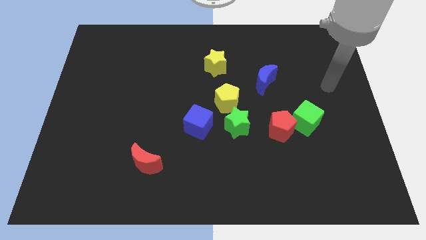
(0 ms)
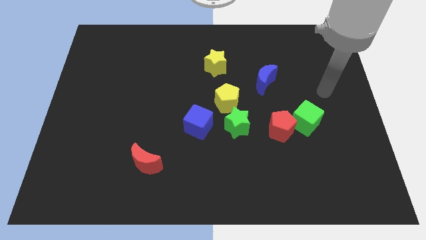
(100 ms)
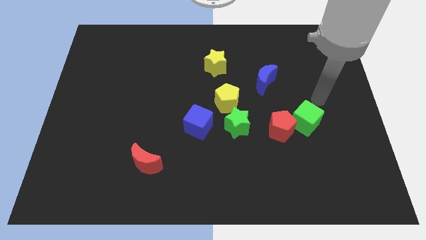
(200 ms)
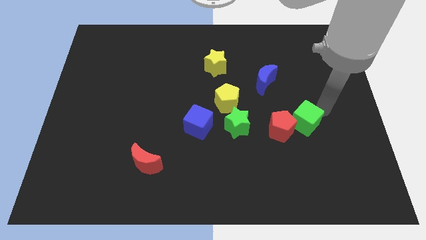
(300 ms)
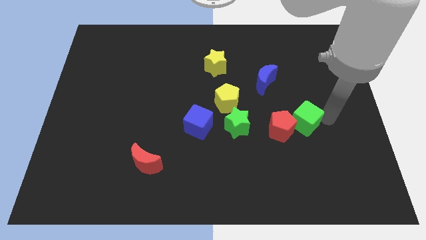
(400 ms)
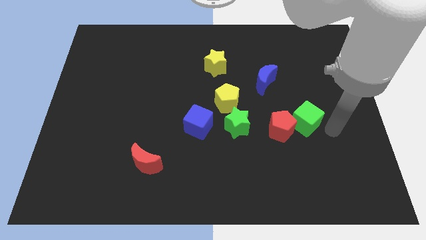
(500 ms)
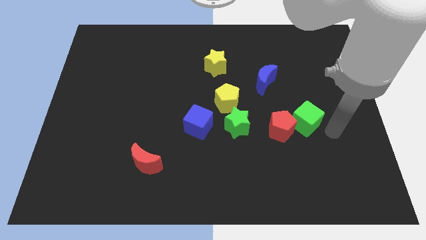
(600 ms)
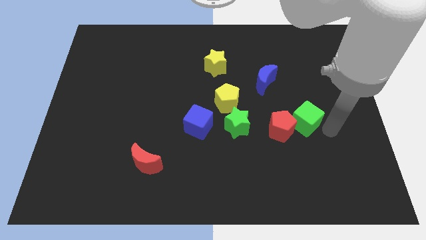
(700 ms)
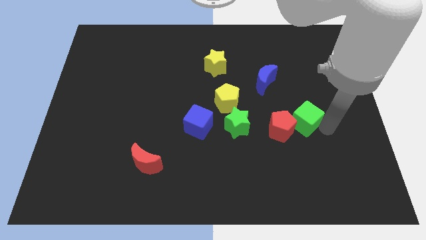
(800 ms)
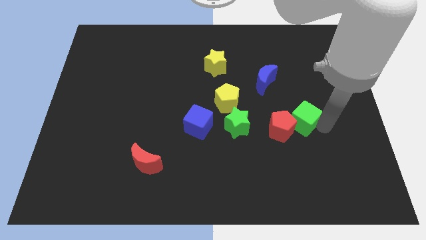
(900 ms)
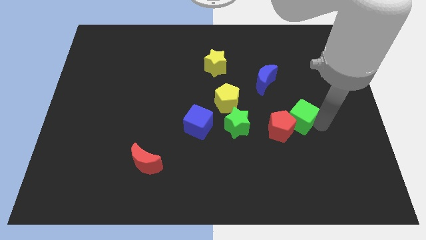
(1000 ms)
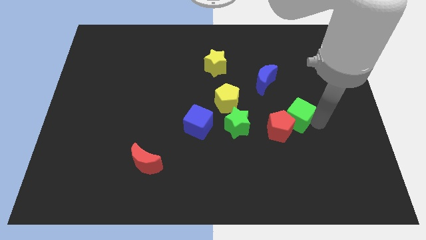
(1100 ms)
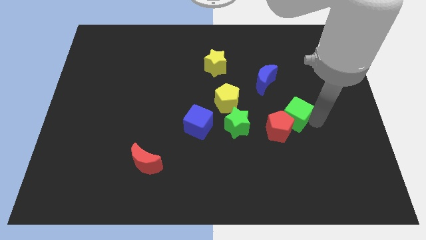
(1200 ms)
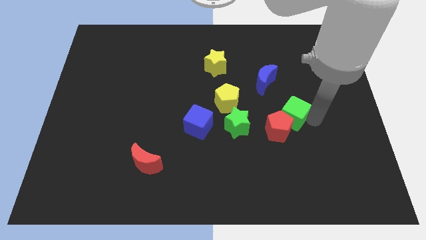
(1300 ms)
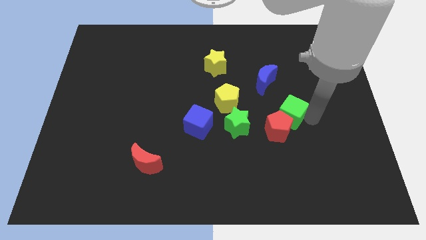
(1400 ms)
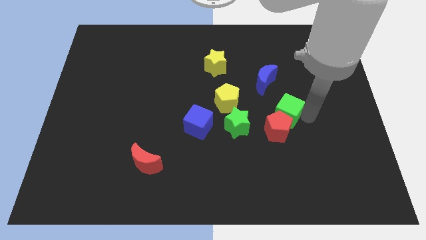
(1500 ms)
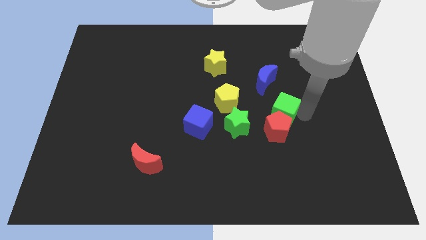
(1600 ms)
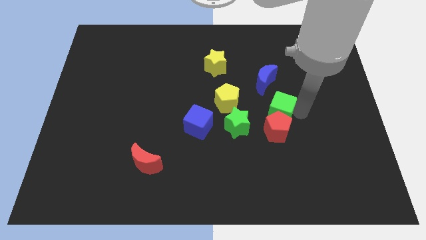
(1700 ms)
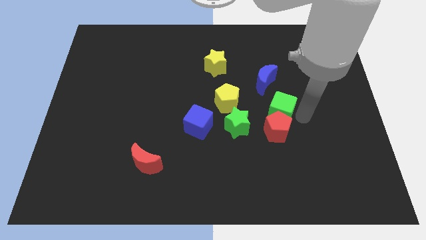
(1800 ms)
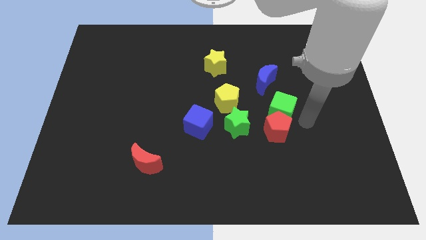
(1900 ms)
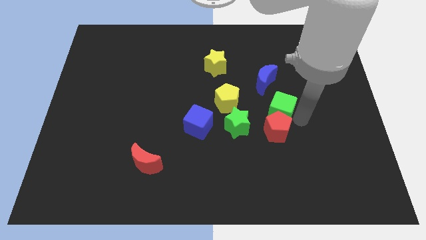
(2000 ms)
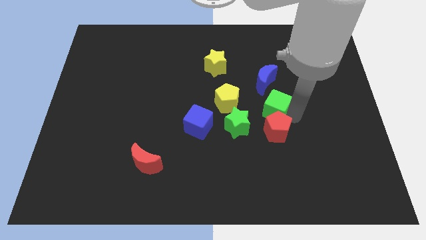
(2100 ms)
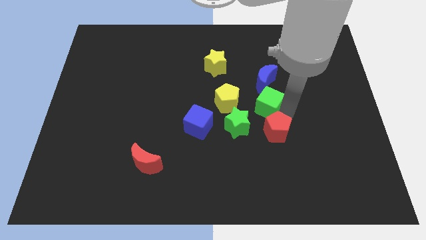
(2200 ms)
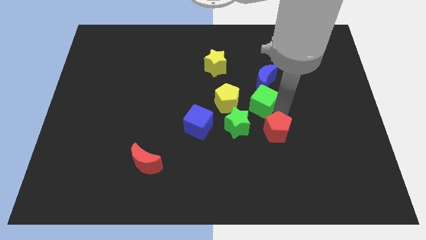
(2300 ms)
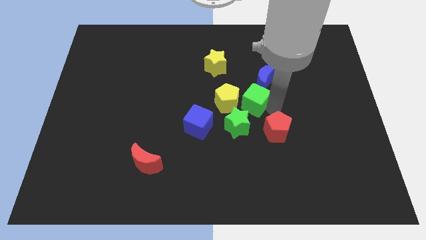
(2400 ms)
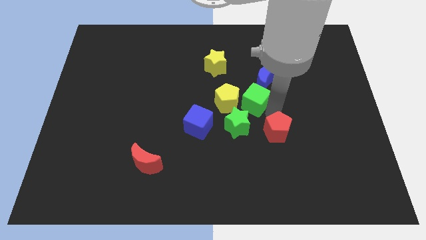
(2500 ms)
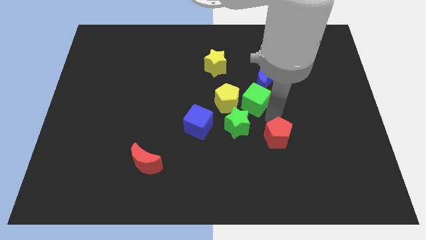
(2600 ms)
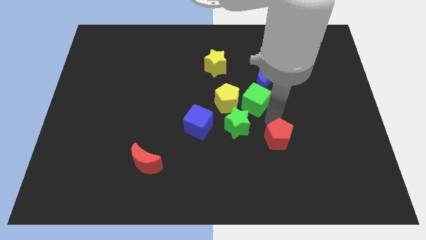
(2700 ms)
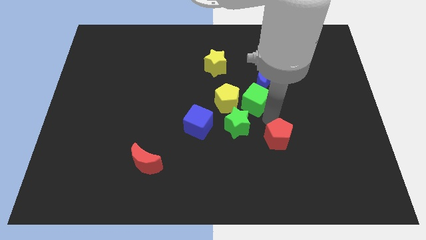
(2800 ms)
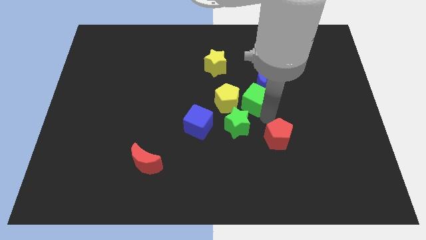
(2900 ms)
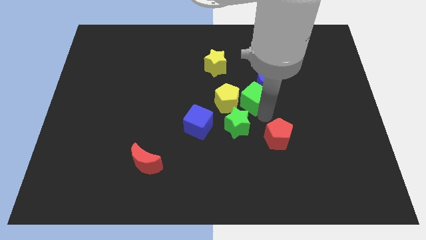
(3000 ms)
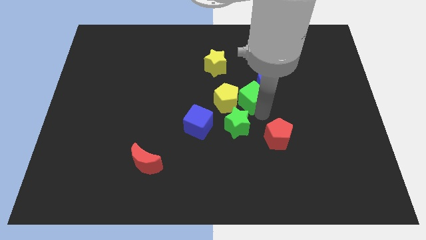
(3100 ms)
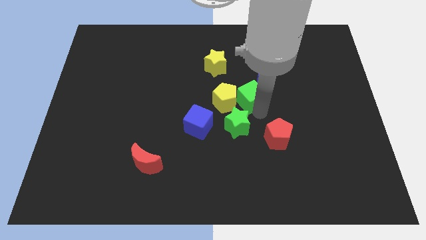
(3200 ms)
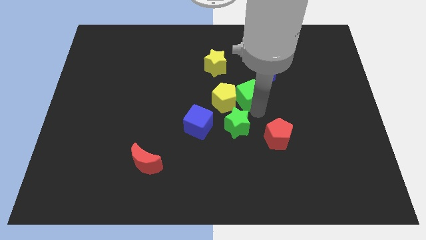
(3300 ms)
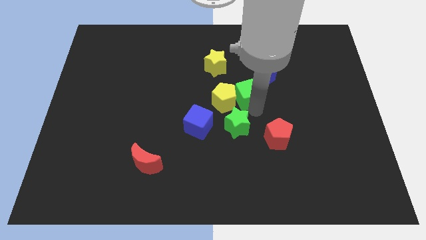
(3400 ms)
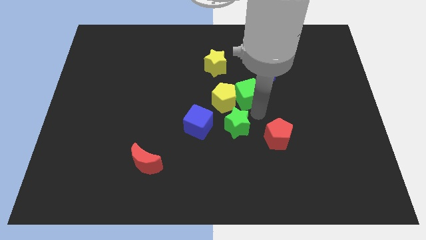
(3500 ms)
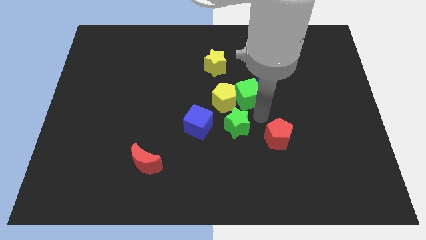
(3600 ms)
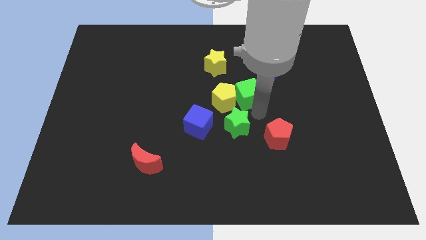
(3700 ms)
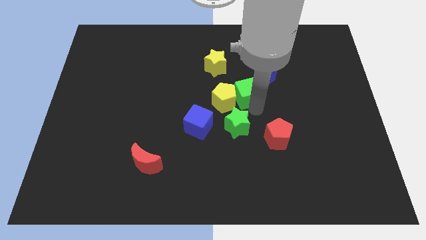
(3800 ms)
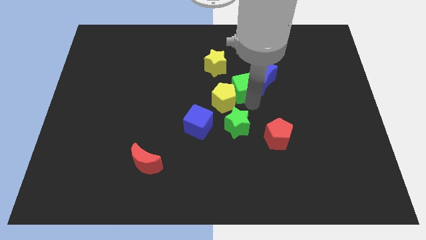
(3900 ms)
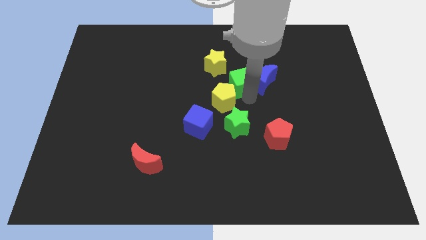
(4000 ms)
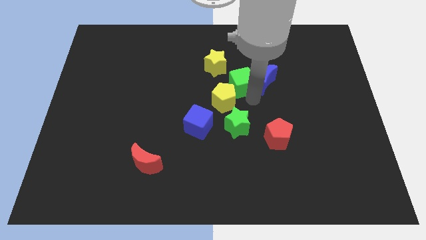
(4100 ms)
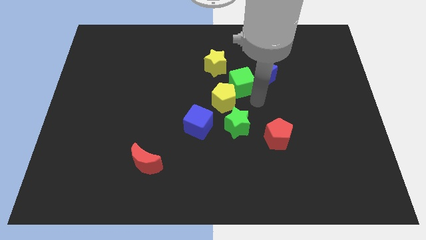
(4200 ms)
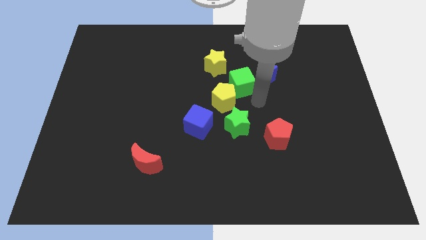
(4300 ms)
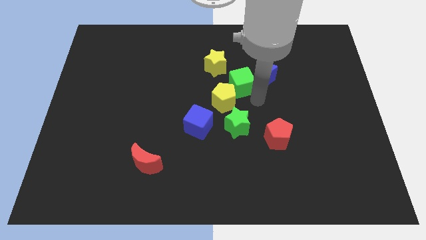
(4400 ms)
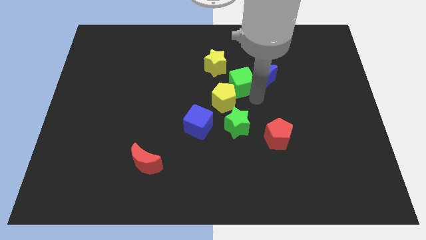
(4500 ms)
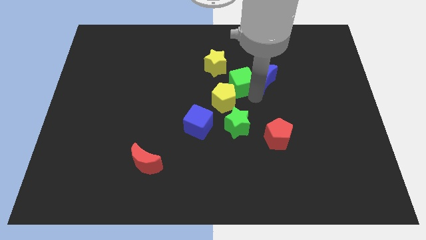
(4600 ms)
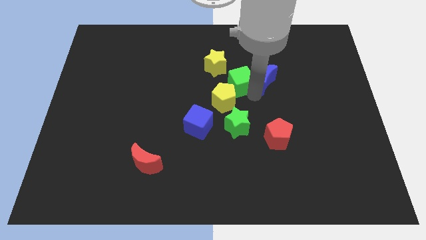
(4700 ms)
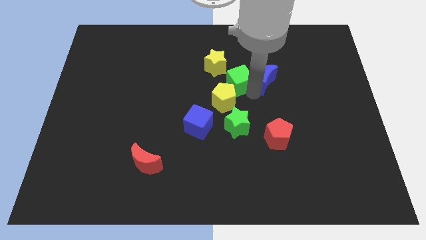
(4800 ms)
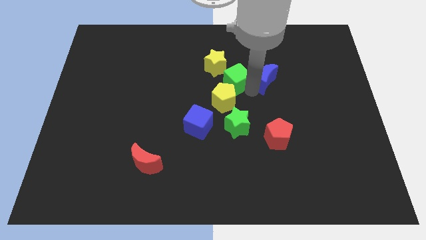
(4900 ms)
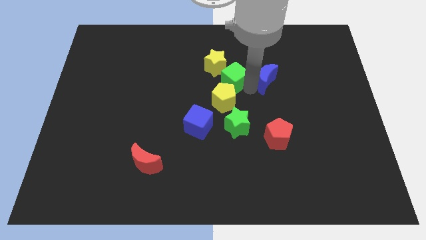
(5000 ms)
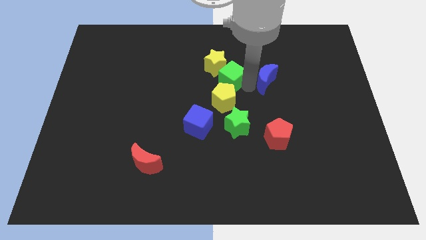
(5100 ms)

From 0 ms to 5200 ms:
put the green cube close to the yellow star

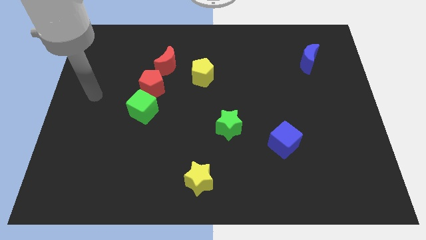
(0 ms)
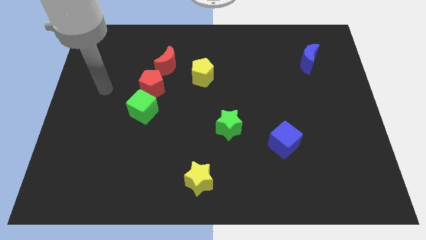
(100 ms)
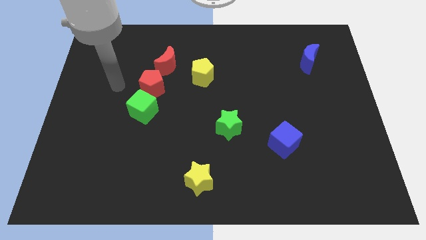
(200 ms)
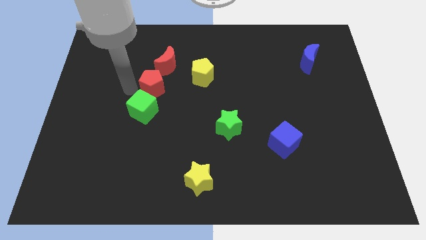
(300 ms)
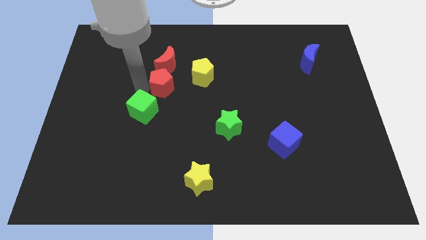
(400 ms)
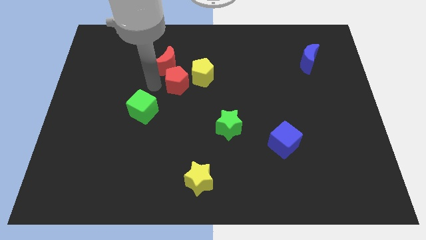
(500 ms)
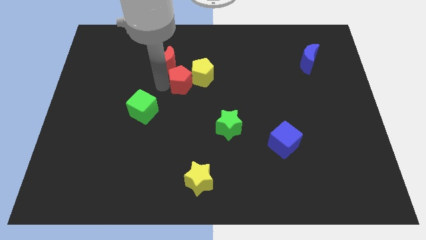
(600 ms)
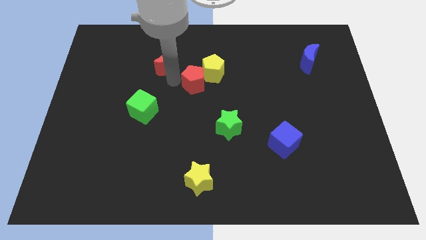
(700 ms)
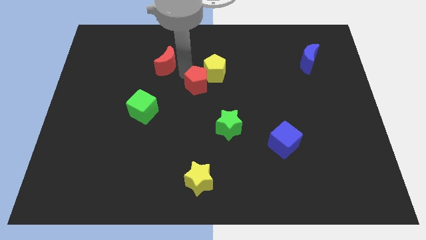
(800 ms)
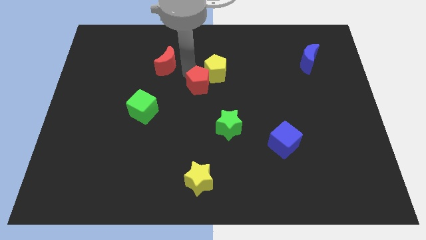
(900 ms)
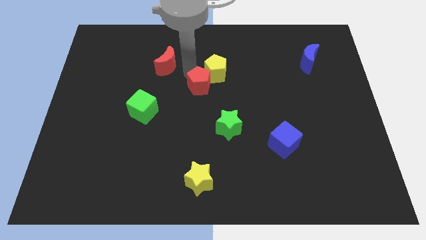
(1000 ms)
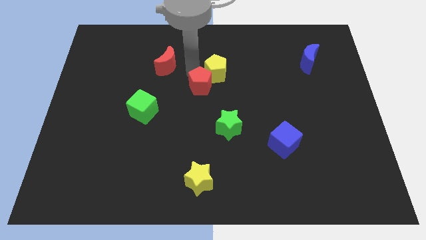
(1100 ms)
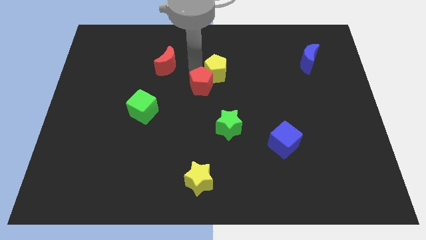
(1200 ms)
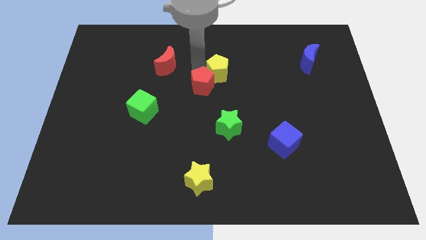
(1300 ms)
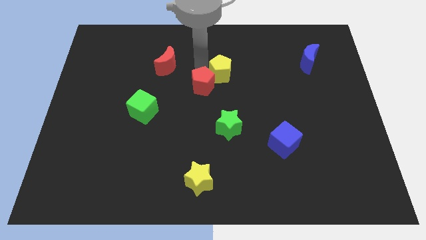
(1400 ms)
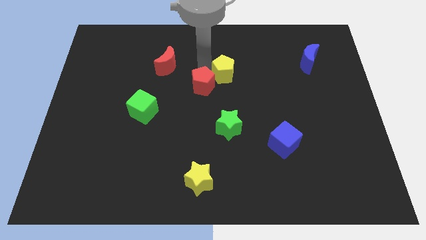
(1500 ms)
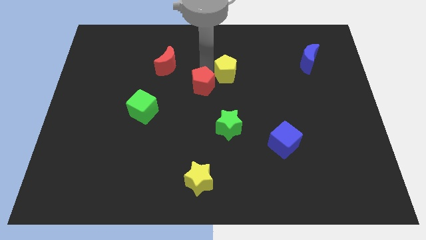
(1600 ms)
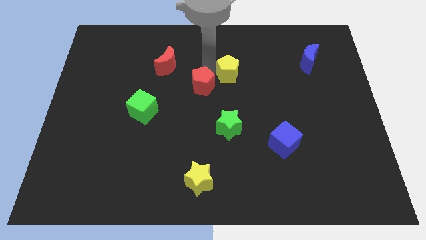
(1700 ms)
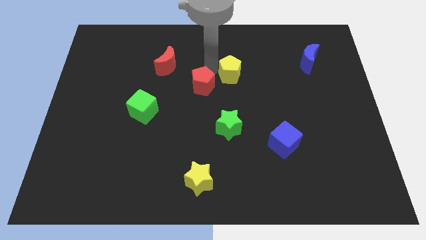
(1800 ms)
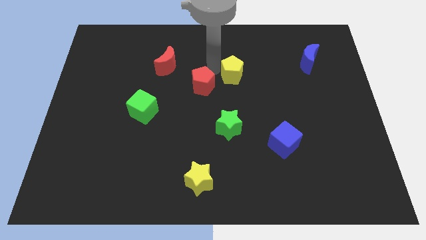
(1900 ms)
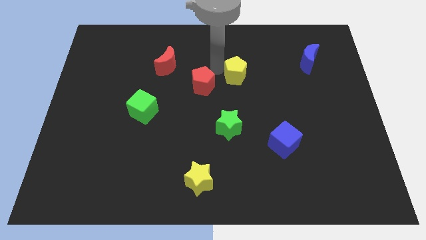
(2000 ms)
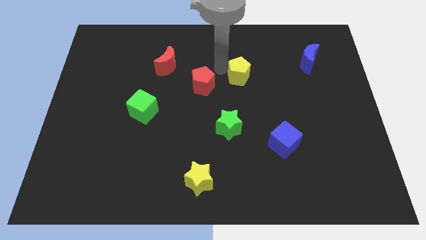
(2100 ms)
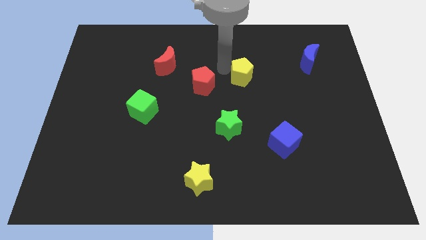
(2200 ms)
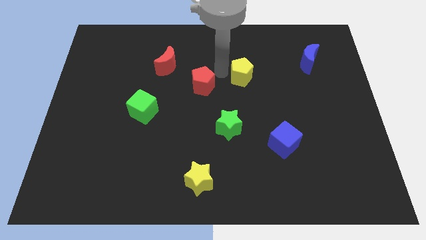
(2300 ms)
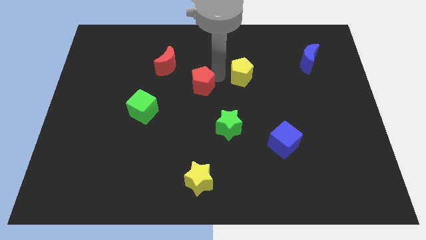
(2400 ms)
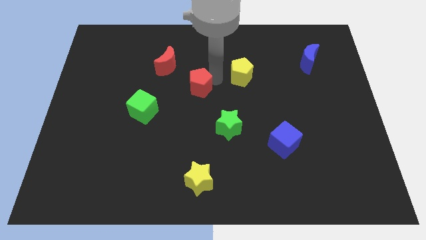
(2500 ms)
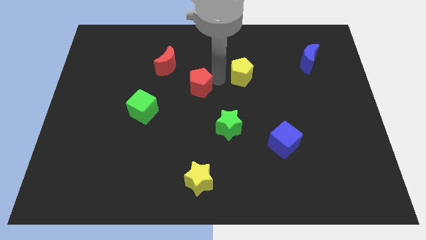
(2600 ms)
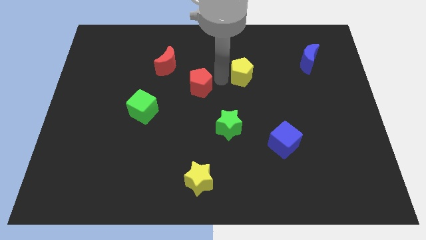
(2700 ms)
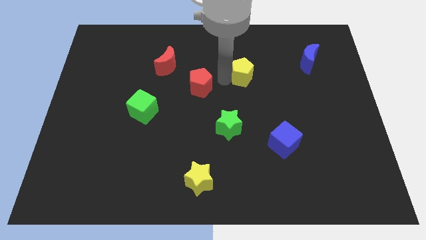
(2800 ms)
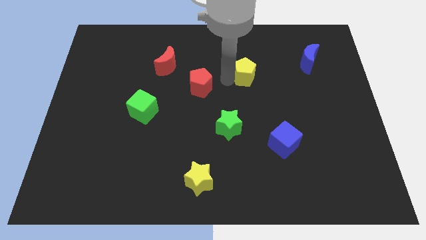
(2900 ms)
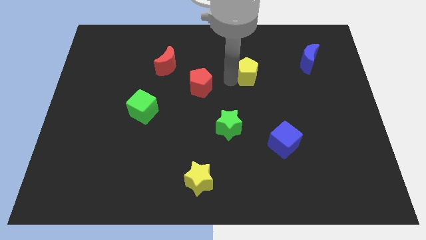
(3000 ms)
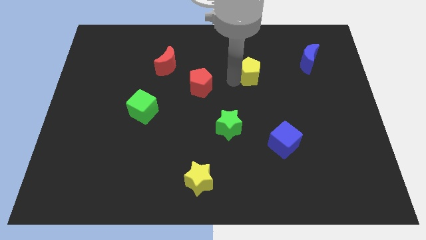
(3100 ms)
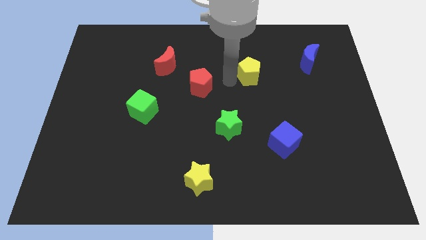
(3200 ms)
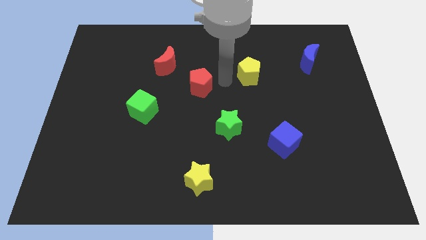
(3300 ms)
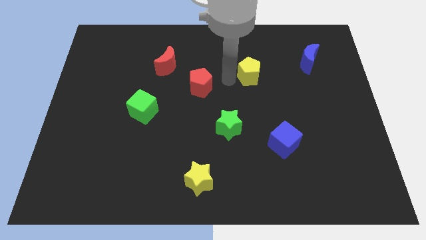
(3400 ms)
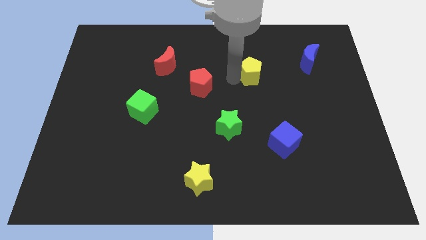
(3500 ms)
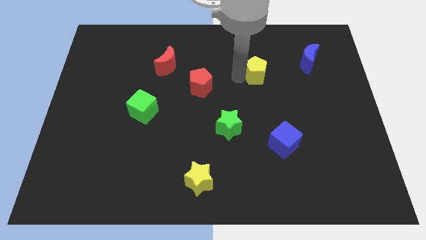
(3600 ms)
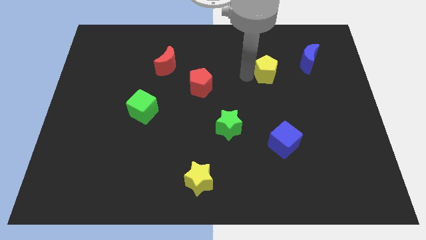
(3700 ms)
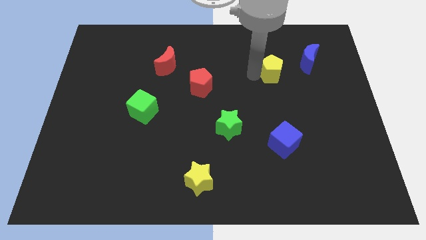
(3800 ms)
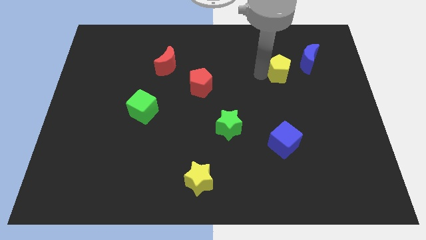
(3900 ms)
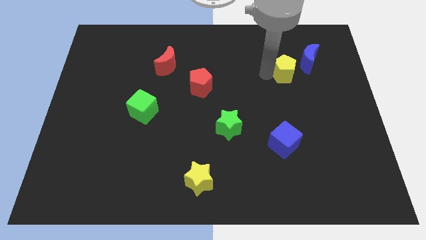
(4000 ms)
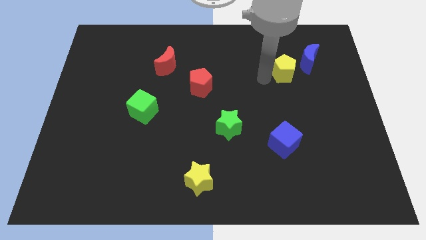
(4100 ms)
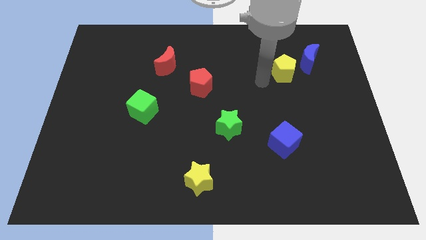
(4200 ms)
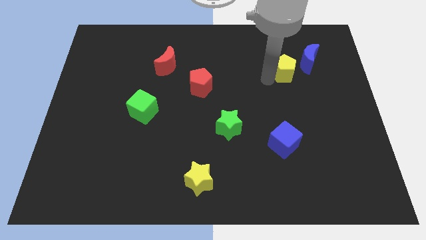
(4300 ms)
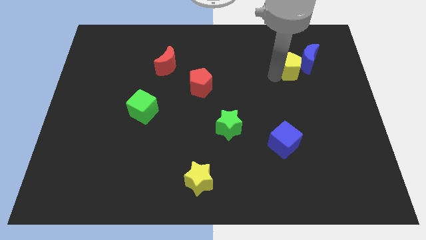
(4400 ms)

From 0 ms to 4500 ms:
slide the yellow pentagon towards the blue moon
